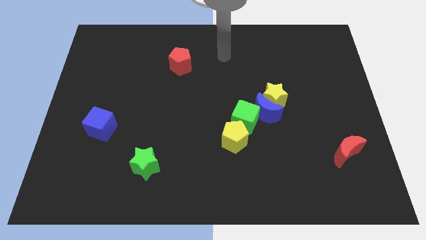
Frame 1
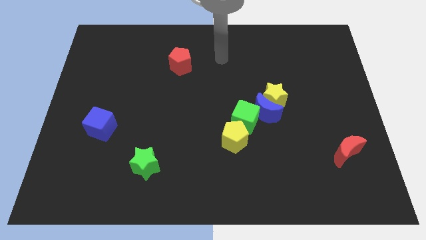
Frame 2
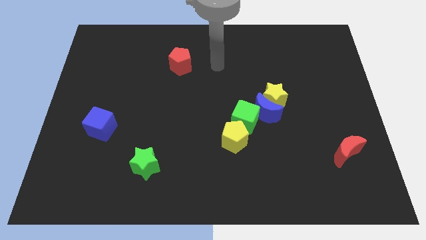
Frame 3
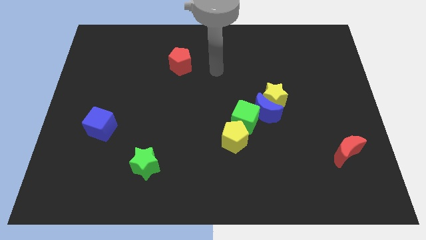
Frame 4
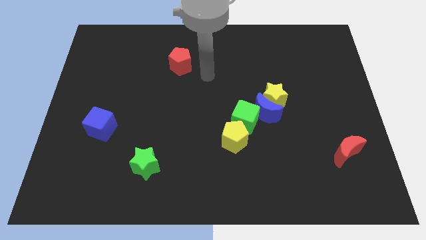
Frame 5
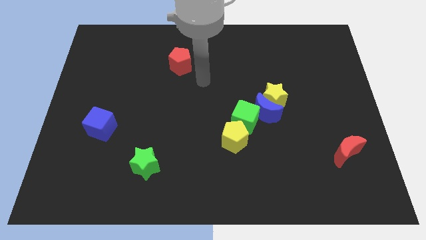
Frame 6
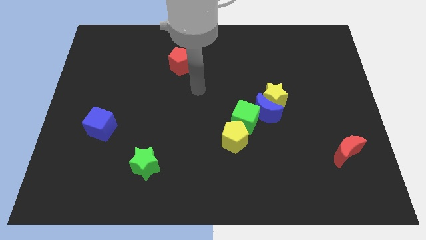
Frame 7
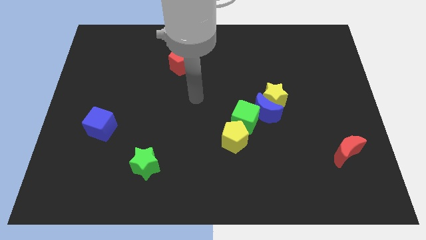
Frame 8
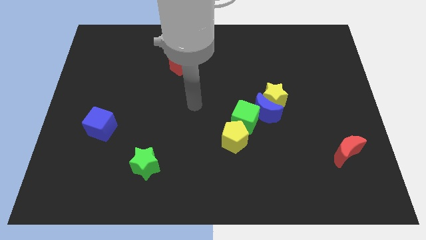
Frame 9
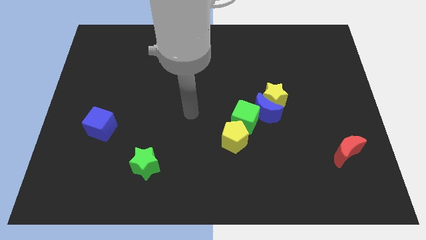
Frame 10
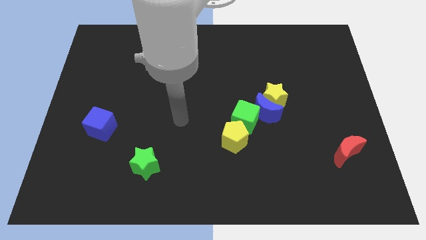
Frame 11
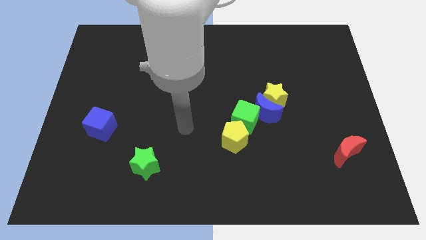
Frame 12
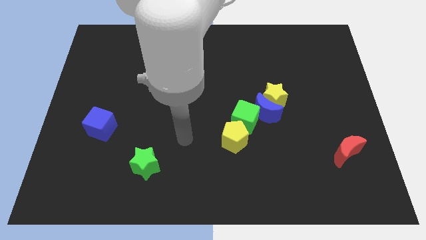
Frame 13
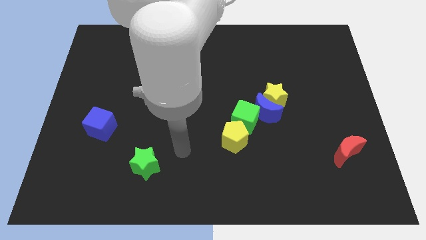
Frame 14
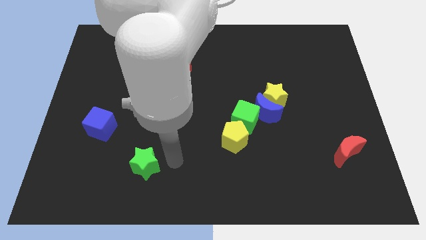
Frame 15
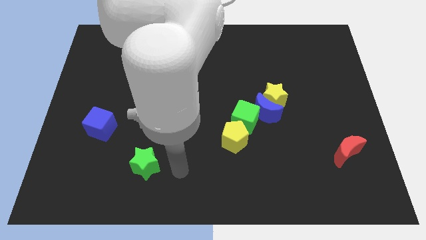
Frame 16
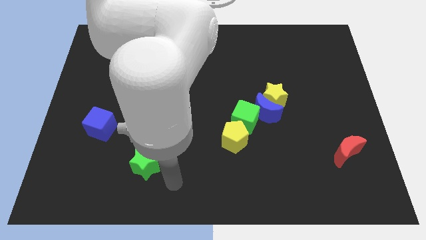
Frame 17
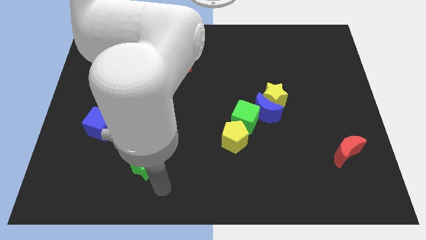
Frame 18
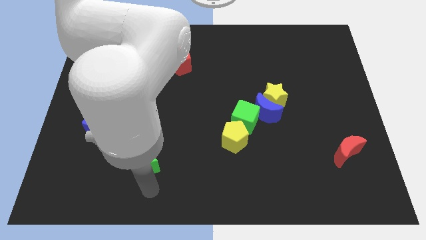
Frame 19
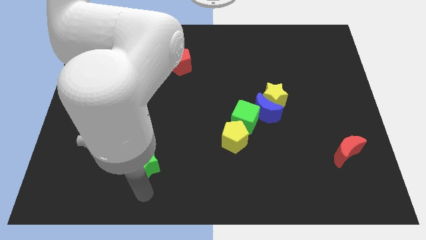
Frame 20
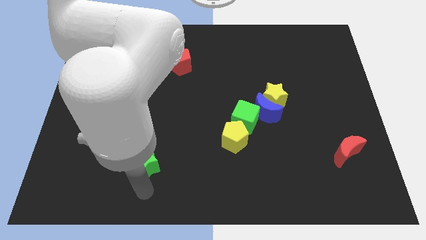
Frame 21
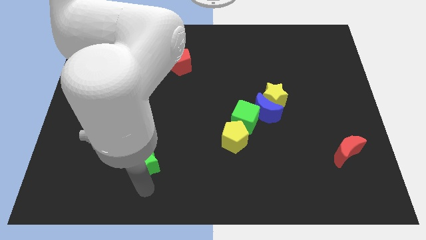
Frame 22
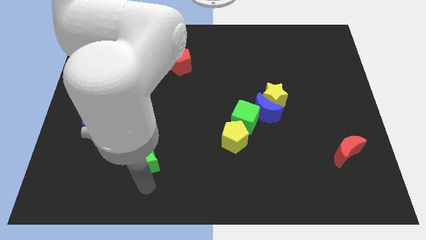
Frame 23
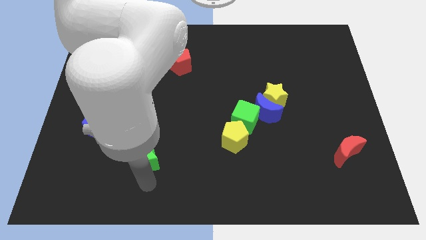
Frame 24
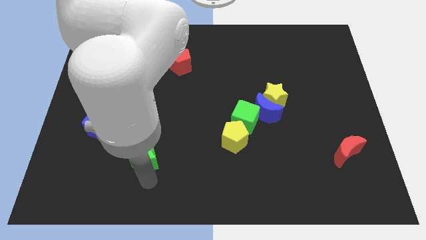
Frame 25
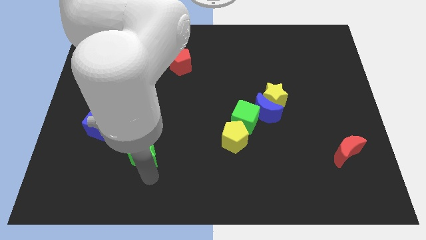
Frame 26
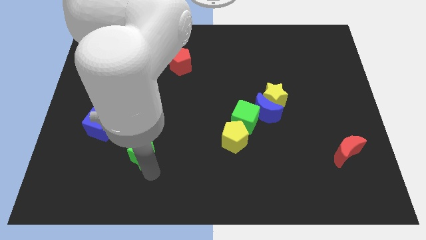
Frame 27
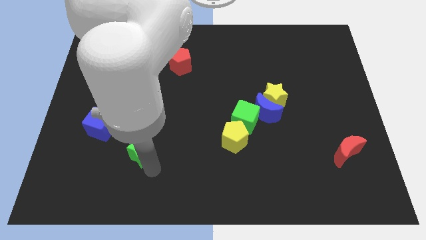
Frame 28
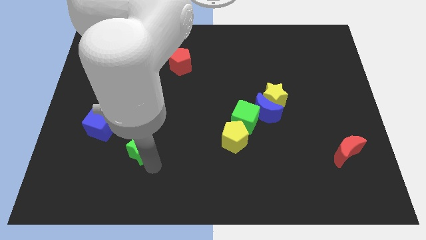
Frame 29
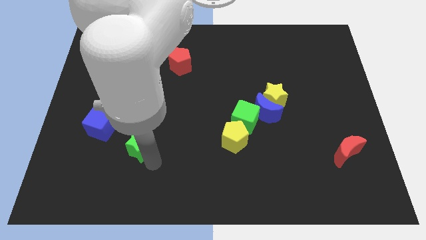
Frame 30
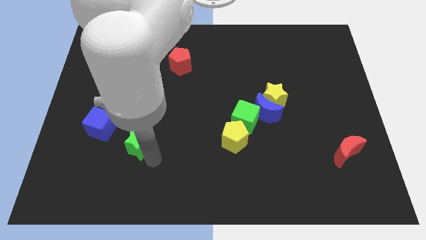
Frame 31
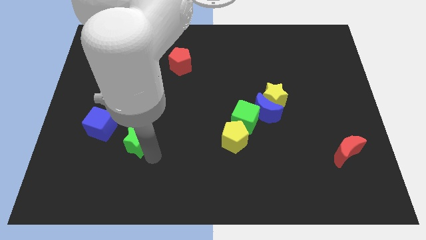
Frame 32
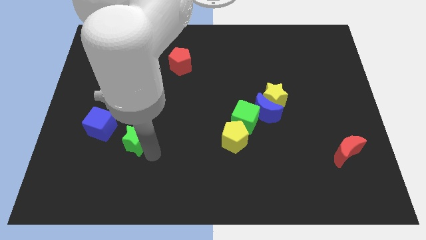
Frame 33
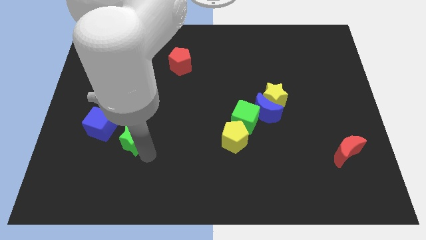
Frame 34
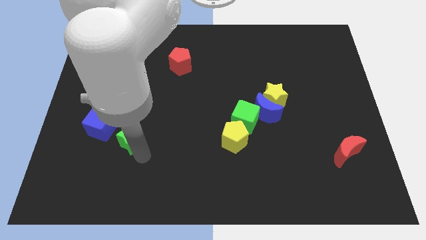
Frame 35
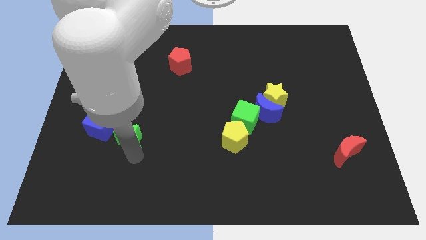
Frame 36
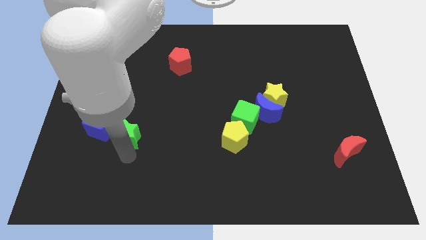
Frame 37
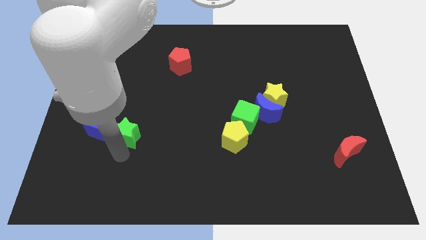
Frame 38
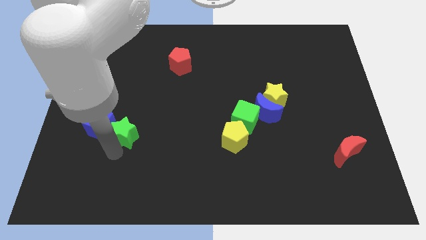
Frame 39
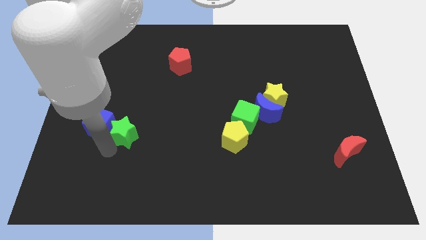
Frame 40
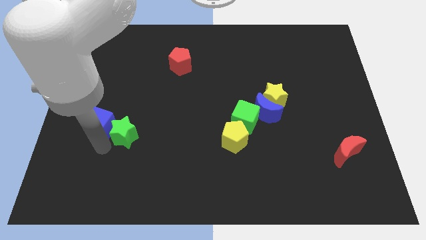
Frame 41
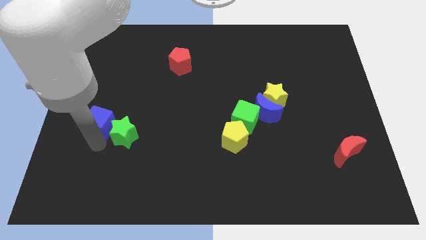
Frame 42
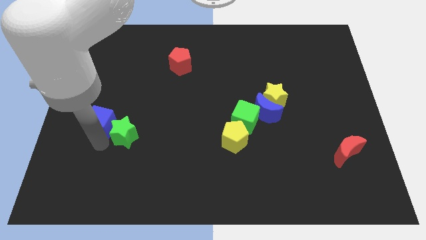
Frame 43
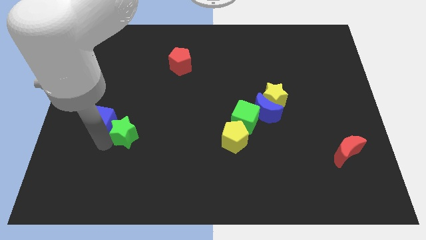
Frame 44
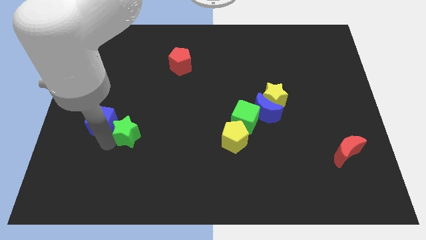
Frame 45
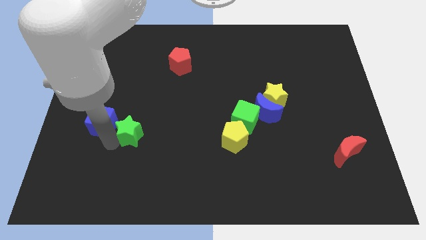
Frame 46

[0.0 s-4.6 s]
push the green star upwards slightly

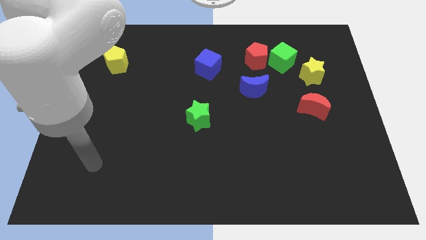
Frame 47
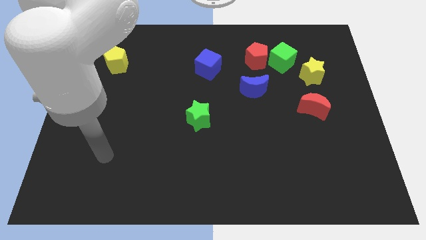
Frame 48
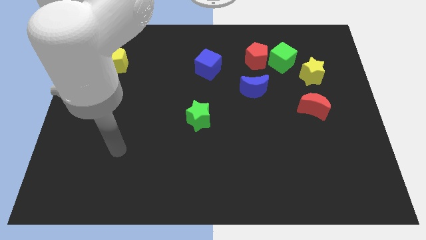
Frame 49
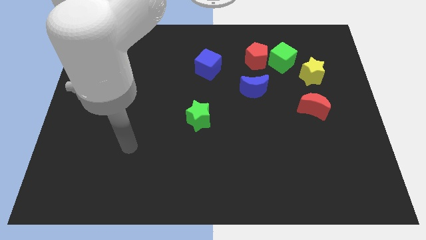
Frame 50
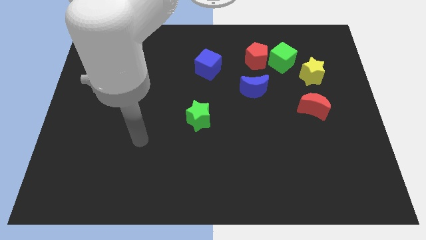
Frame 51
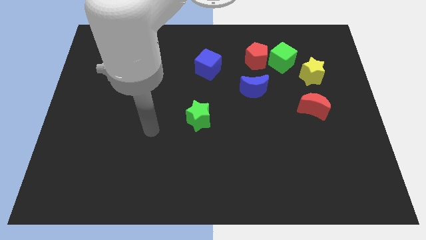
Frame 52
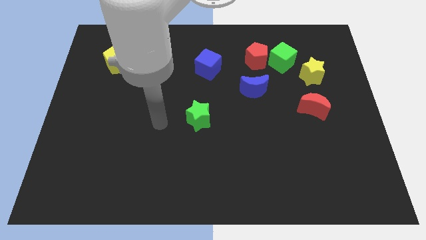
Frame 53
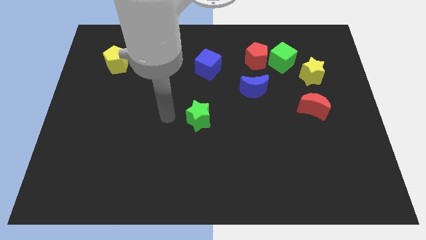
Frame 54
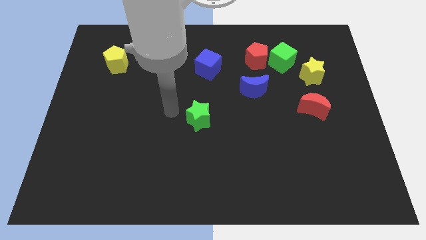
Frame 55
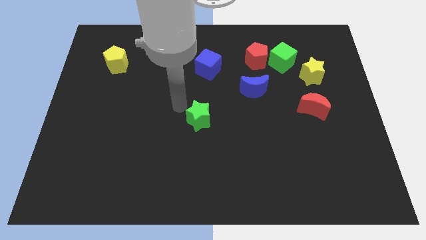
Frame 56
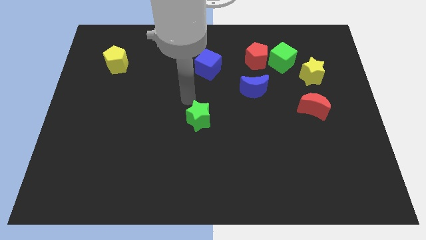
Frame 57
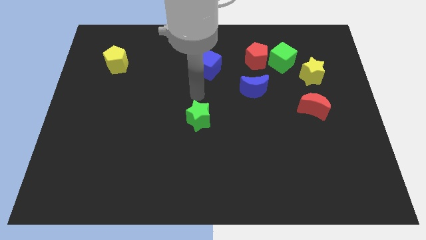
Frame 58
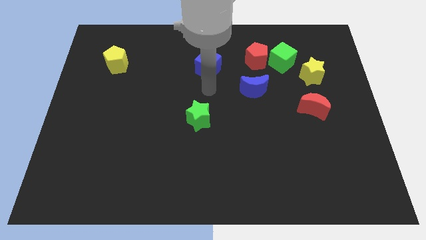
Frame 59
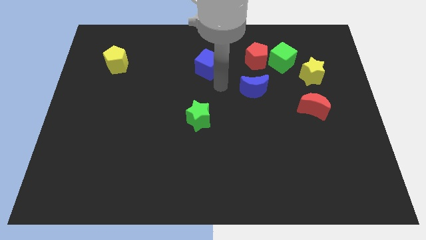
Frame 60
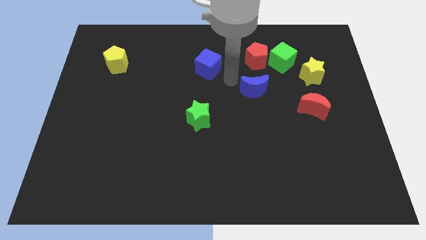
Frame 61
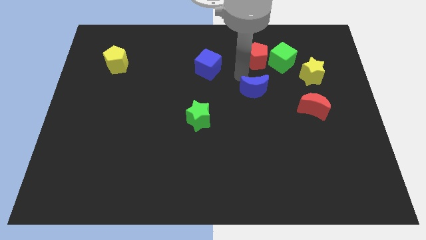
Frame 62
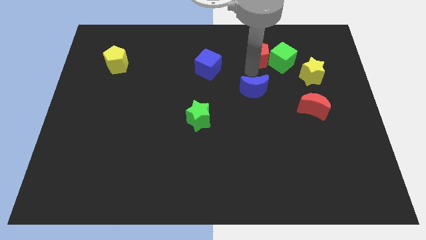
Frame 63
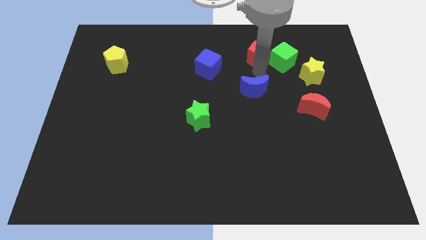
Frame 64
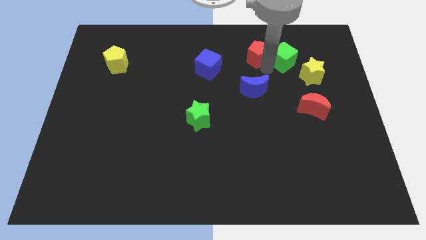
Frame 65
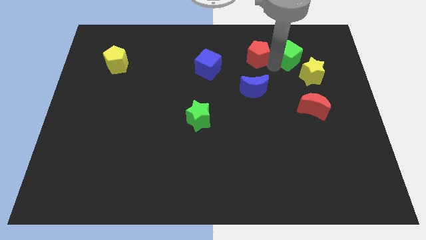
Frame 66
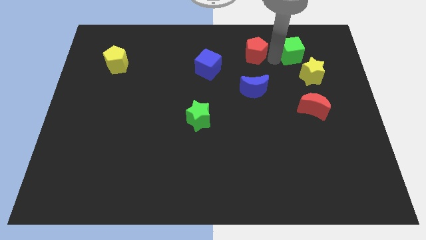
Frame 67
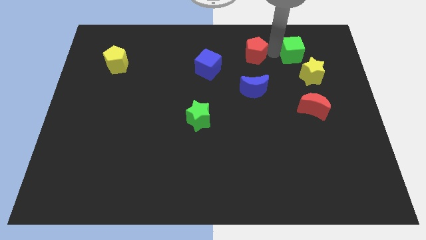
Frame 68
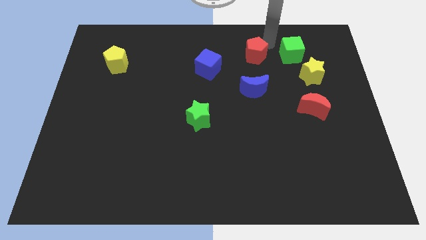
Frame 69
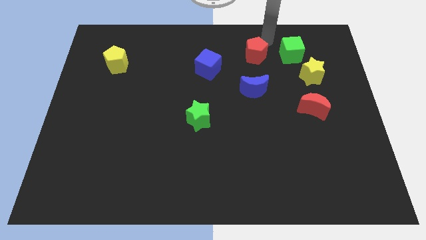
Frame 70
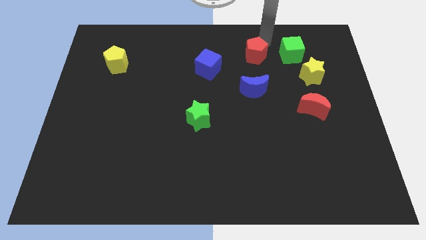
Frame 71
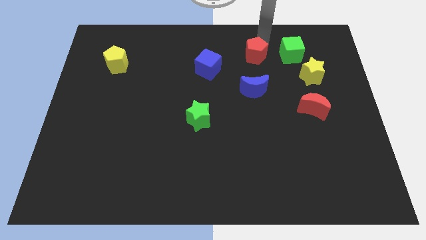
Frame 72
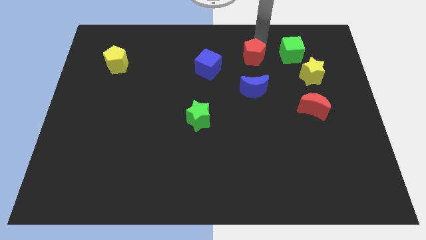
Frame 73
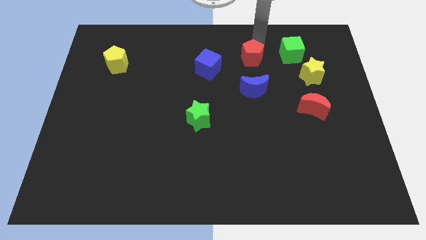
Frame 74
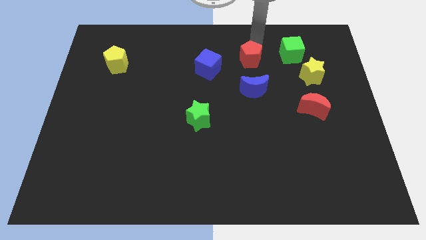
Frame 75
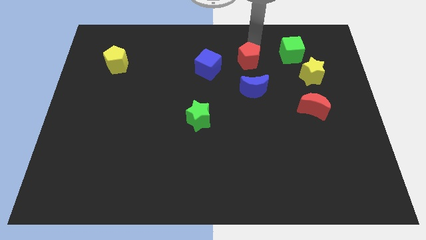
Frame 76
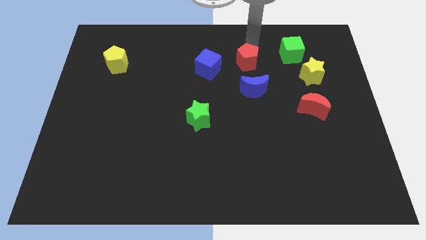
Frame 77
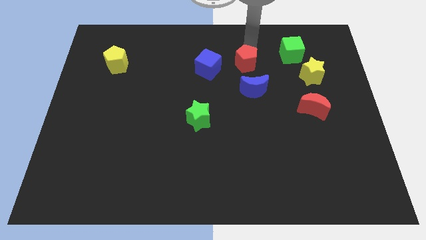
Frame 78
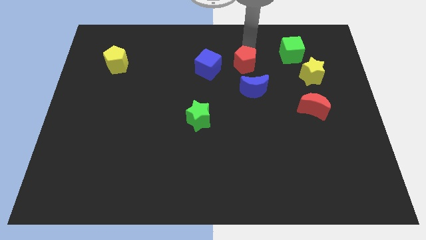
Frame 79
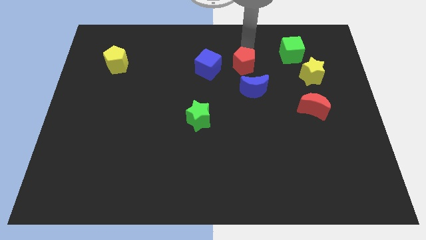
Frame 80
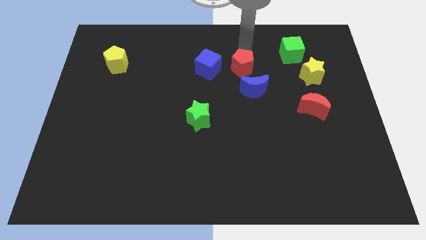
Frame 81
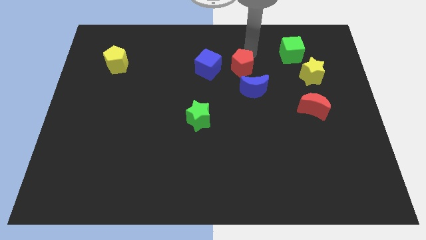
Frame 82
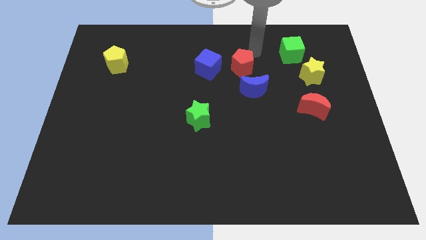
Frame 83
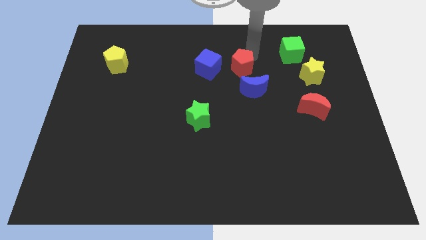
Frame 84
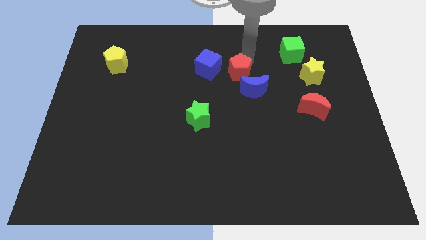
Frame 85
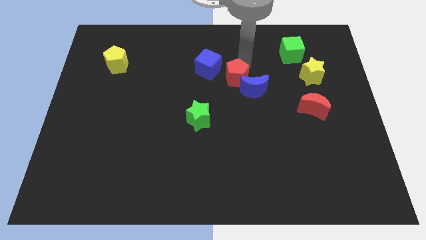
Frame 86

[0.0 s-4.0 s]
push the red pentagon a little bit downwards and to the left
